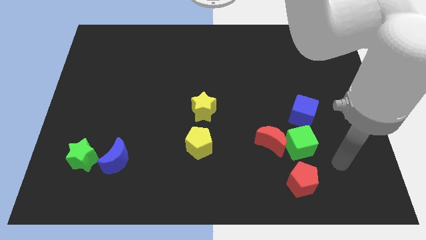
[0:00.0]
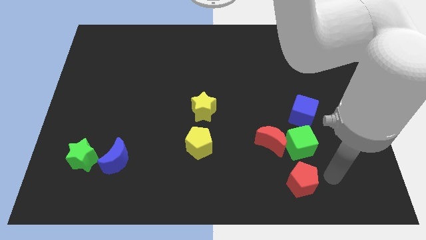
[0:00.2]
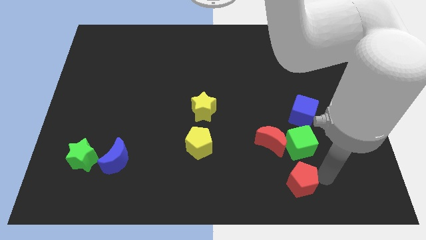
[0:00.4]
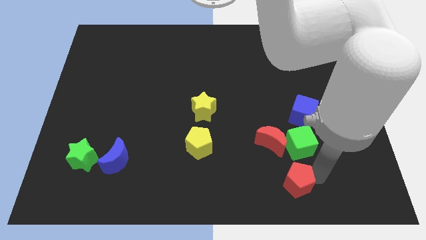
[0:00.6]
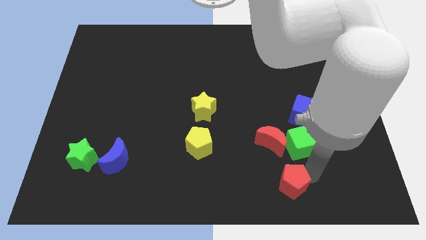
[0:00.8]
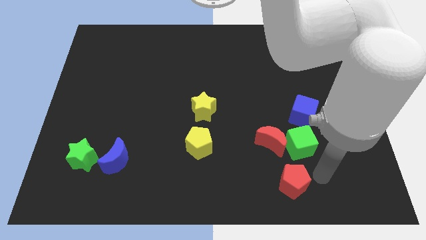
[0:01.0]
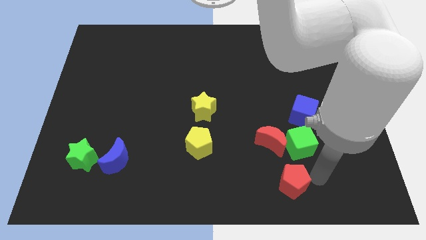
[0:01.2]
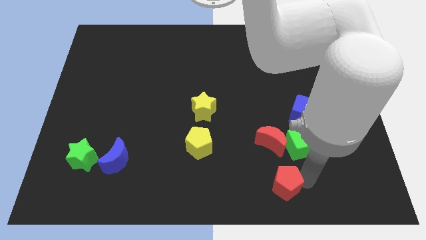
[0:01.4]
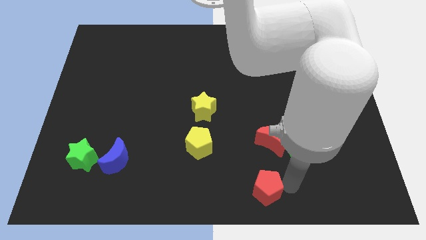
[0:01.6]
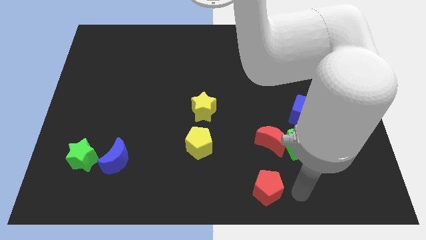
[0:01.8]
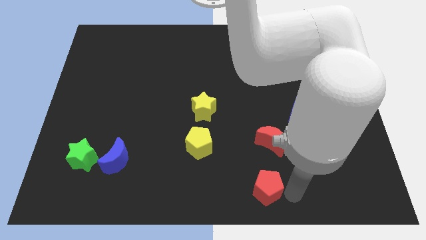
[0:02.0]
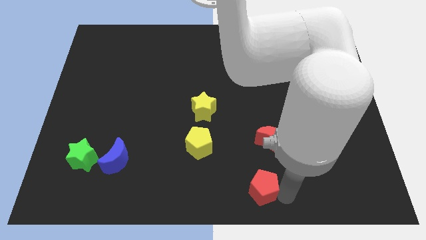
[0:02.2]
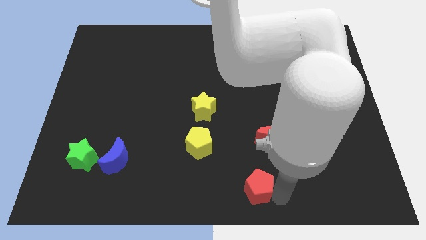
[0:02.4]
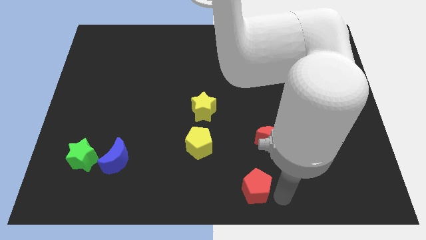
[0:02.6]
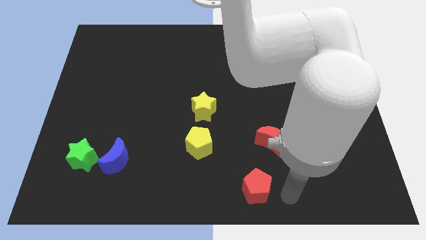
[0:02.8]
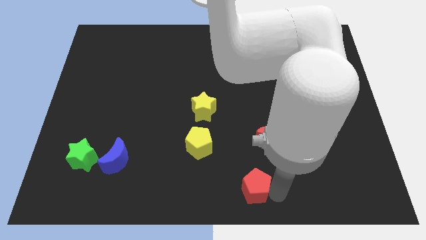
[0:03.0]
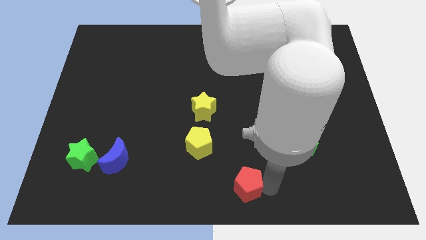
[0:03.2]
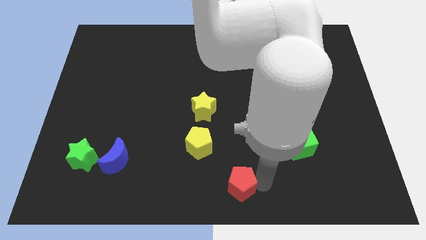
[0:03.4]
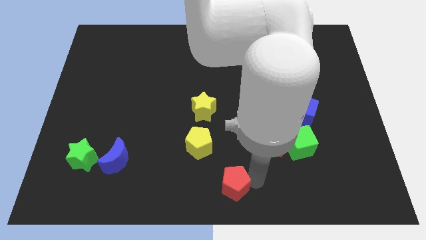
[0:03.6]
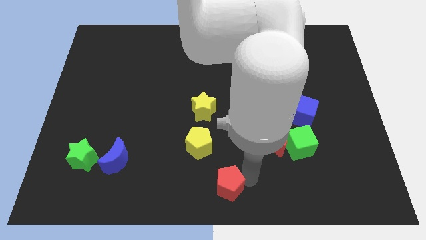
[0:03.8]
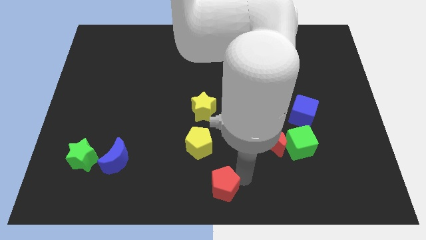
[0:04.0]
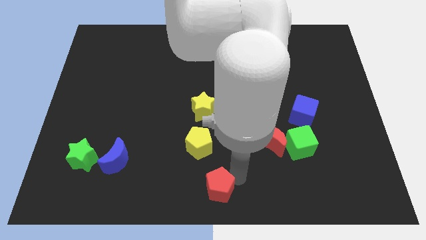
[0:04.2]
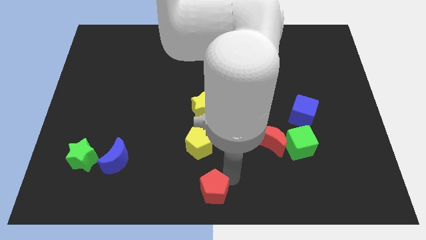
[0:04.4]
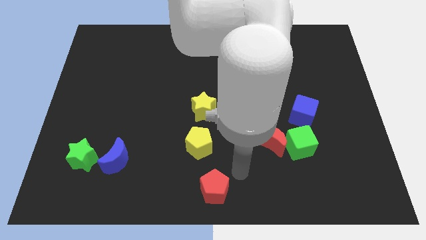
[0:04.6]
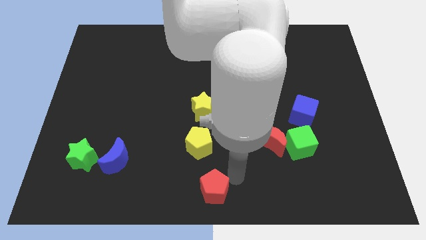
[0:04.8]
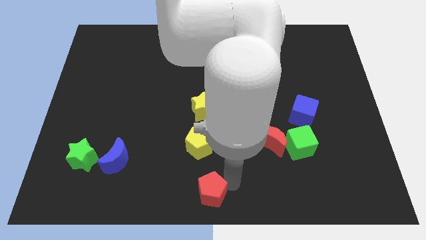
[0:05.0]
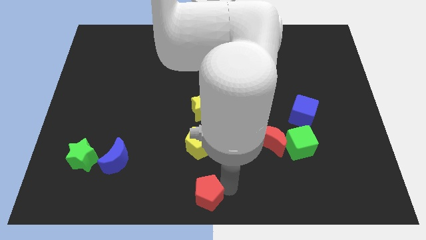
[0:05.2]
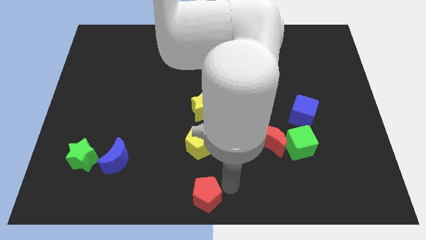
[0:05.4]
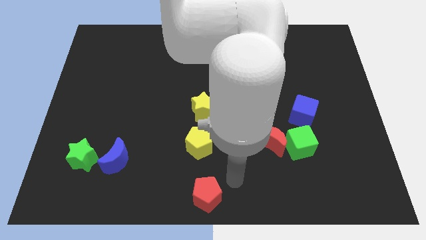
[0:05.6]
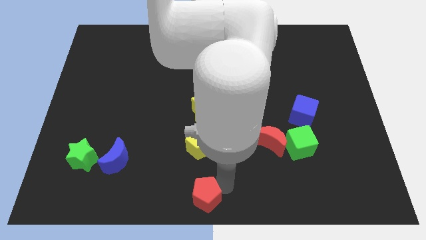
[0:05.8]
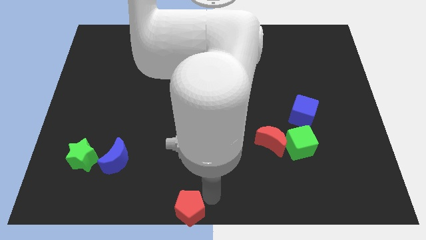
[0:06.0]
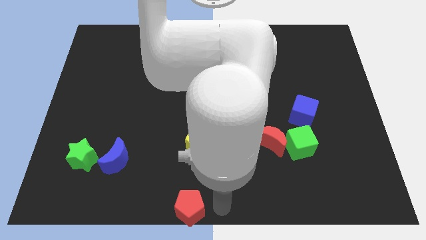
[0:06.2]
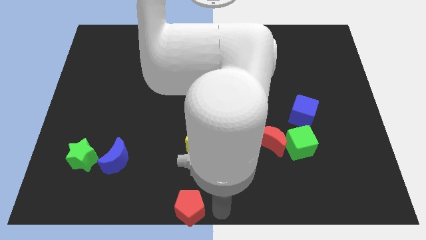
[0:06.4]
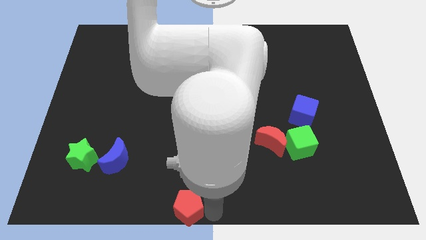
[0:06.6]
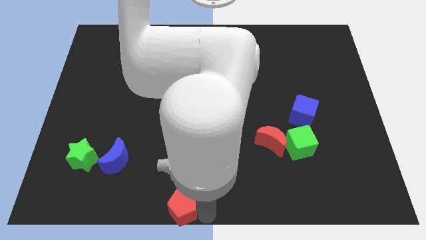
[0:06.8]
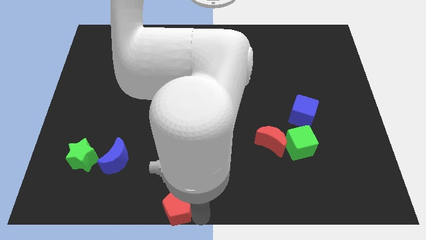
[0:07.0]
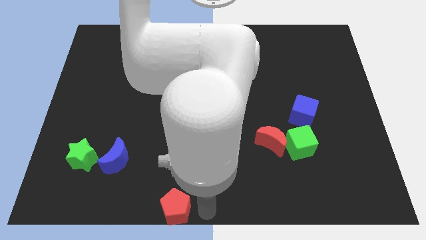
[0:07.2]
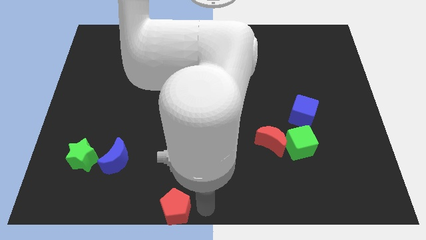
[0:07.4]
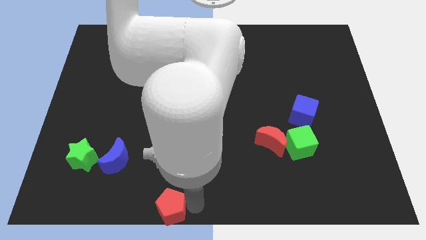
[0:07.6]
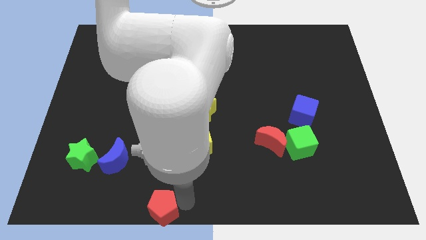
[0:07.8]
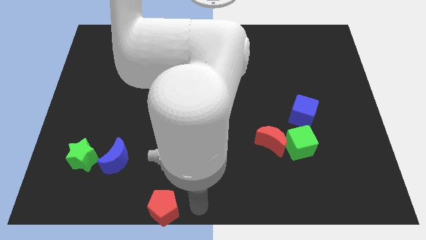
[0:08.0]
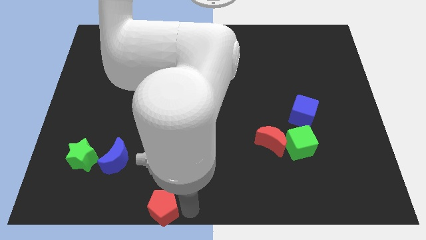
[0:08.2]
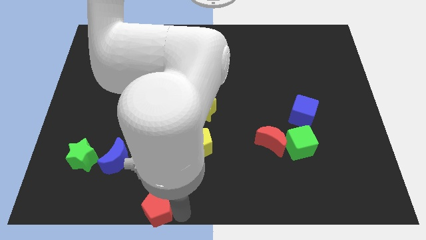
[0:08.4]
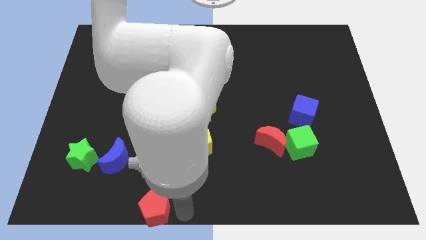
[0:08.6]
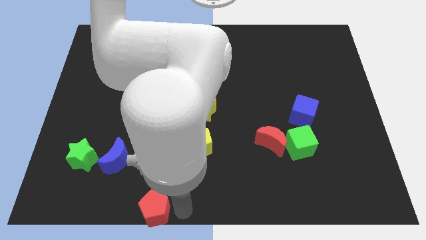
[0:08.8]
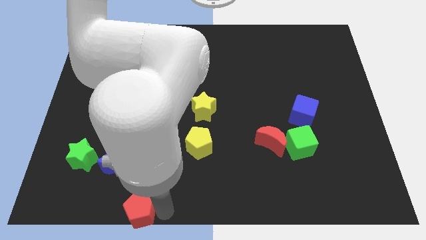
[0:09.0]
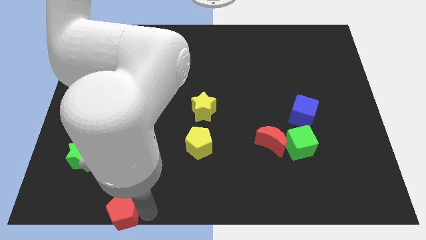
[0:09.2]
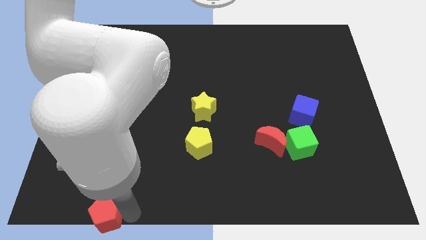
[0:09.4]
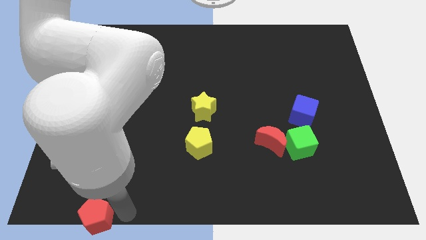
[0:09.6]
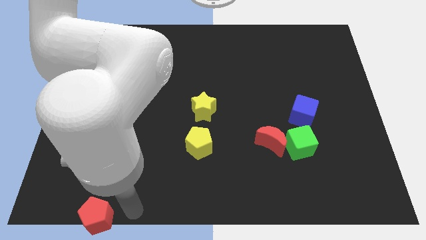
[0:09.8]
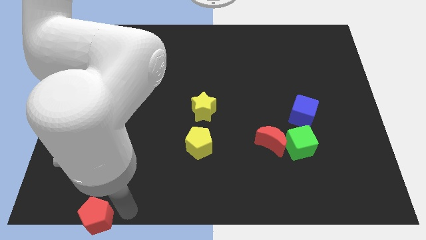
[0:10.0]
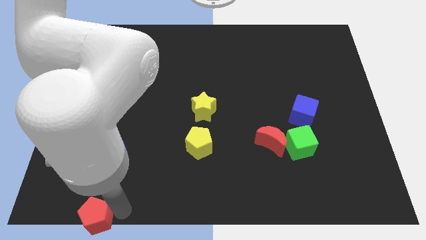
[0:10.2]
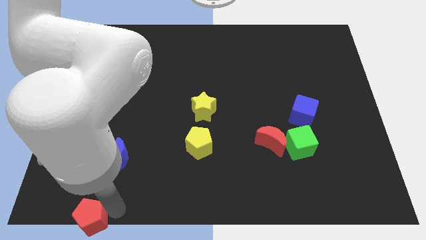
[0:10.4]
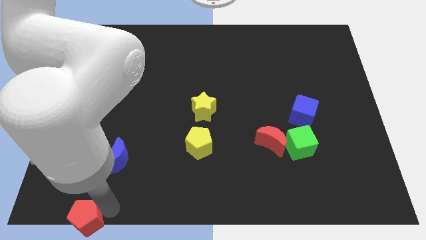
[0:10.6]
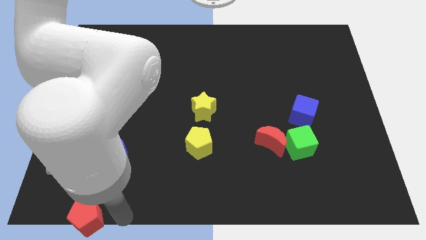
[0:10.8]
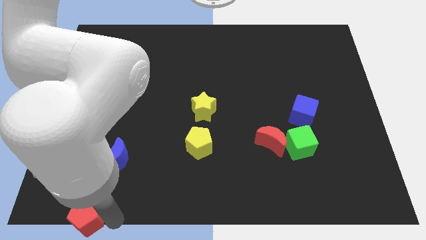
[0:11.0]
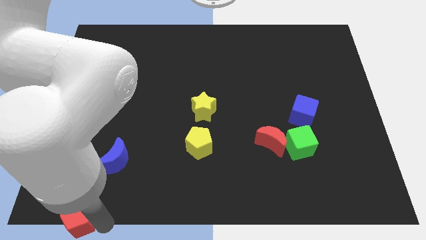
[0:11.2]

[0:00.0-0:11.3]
put the red pentagon to the bottom left corner

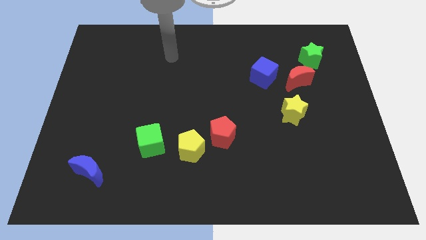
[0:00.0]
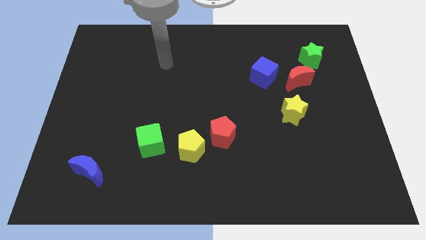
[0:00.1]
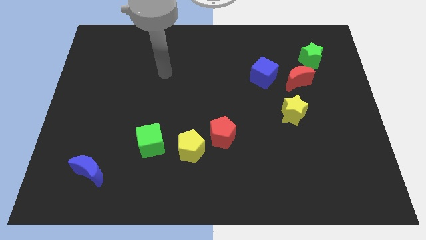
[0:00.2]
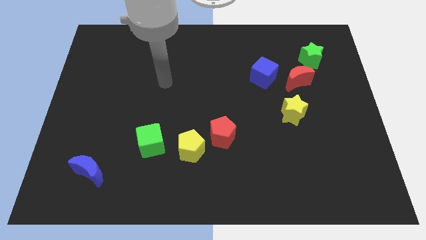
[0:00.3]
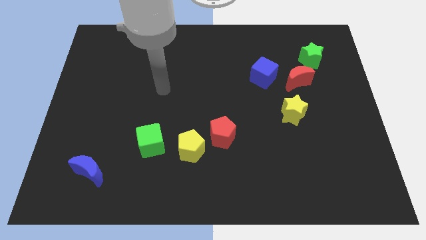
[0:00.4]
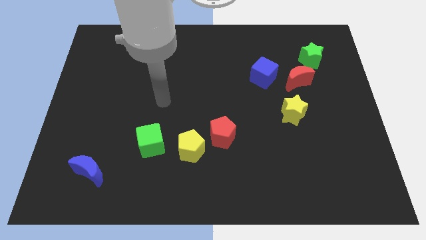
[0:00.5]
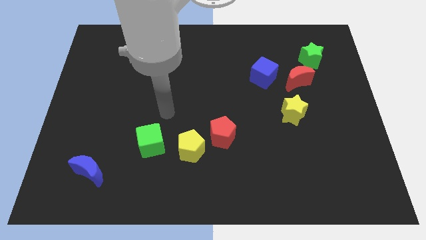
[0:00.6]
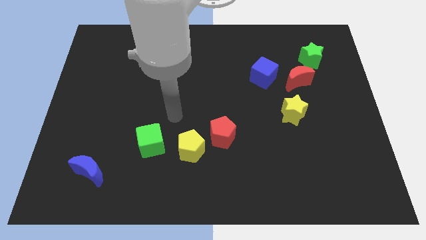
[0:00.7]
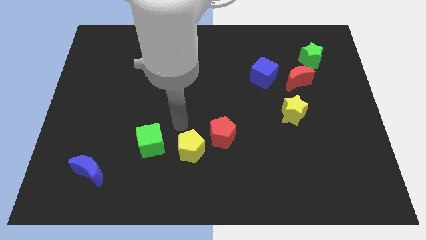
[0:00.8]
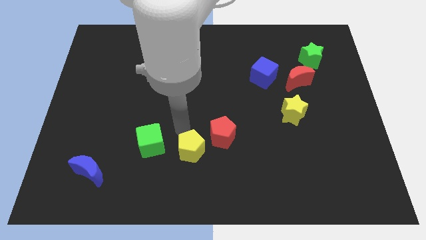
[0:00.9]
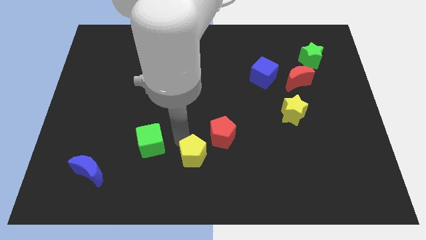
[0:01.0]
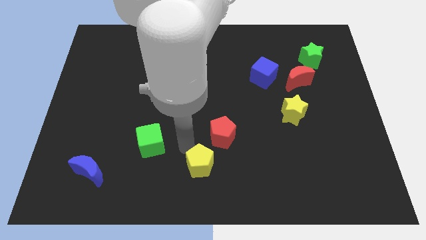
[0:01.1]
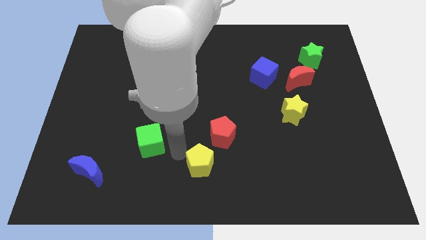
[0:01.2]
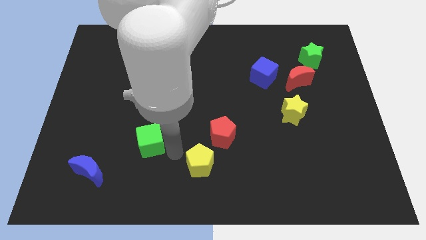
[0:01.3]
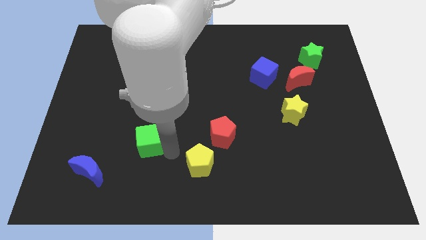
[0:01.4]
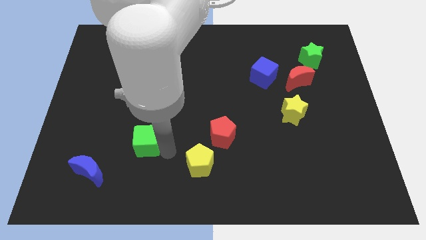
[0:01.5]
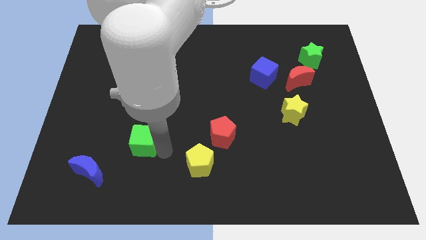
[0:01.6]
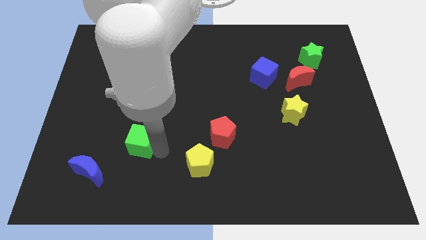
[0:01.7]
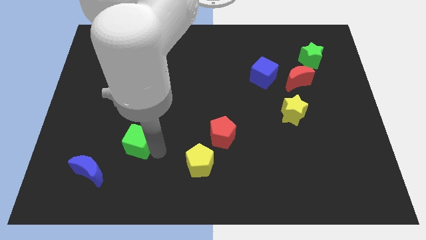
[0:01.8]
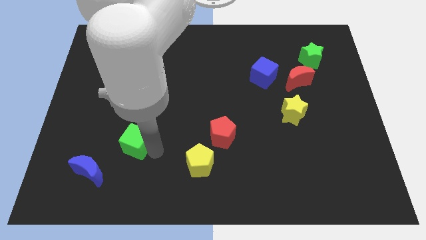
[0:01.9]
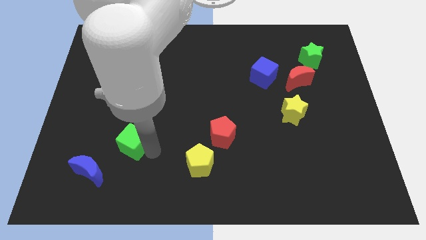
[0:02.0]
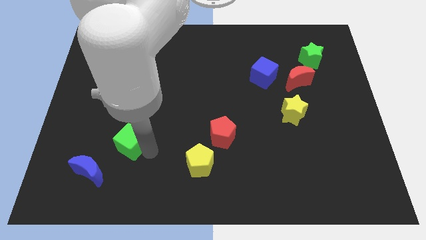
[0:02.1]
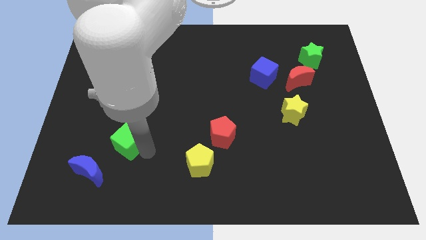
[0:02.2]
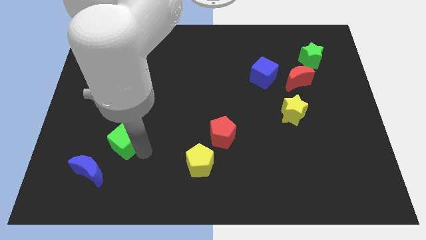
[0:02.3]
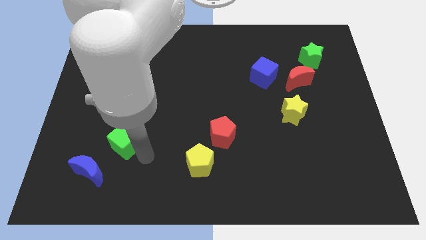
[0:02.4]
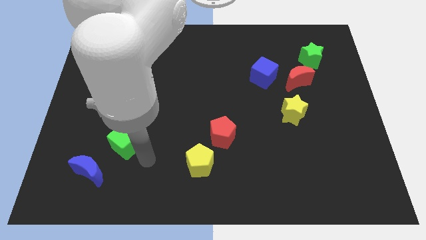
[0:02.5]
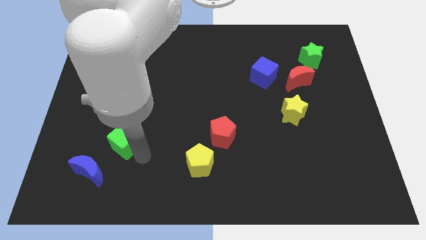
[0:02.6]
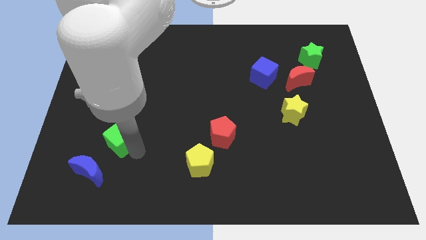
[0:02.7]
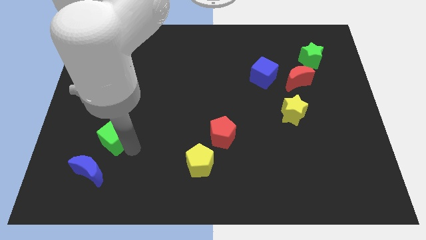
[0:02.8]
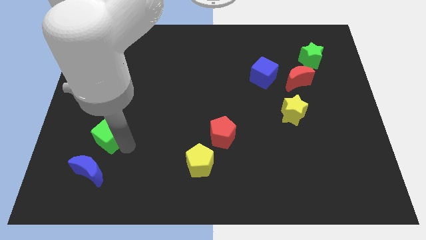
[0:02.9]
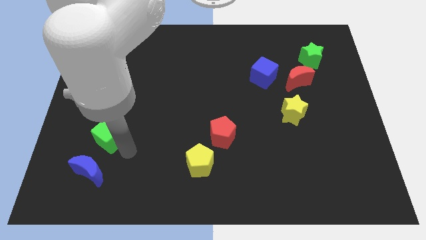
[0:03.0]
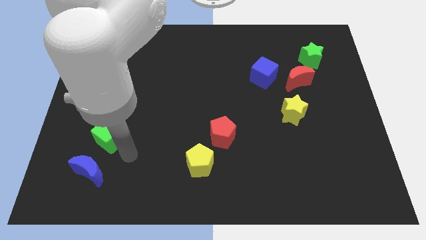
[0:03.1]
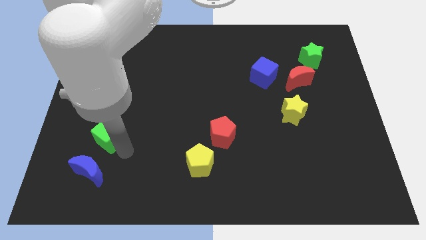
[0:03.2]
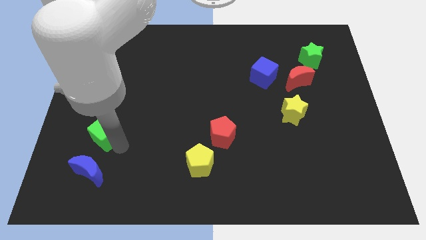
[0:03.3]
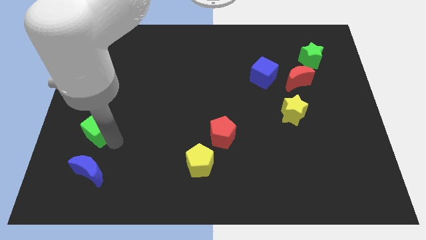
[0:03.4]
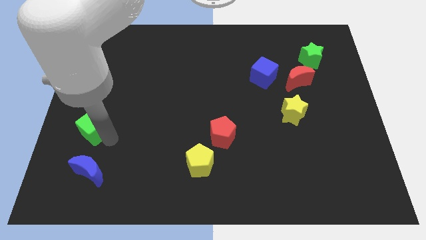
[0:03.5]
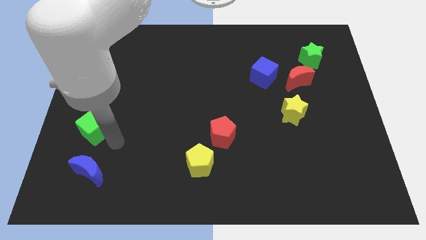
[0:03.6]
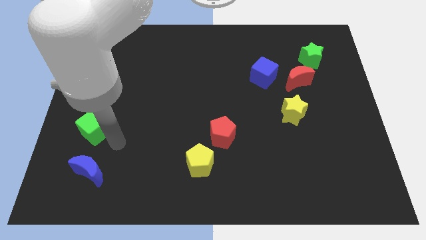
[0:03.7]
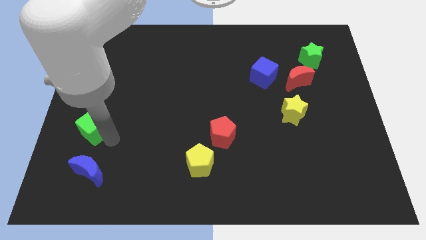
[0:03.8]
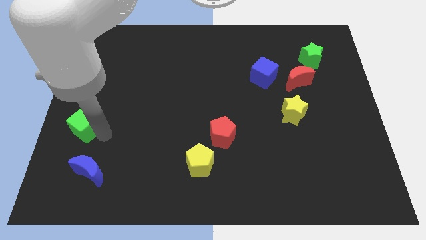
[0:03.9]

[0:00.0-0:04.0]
push the green cube to the left side
